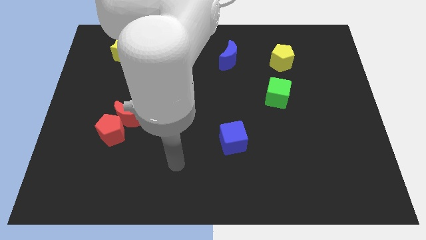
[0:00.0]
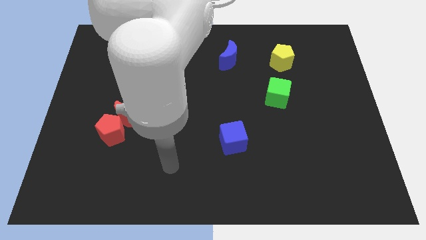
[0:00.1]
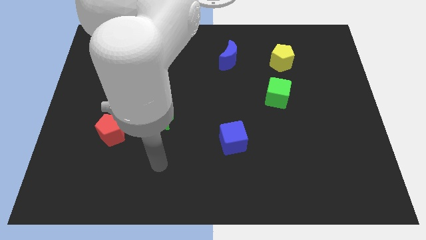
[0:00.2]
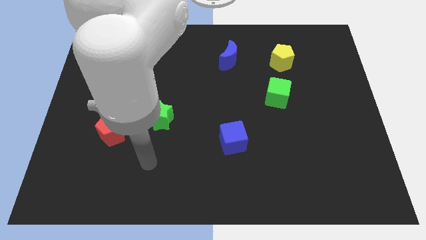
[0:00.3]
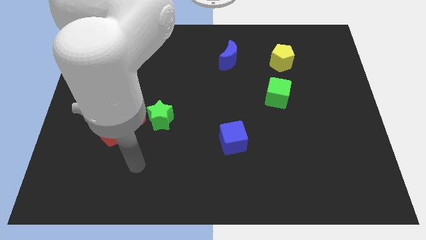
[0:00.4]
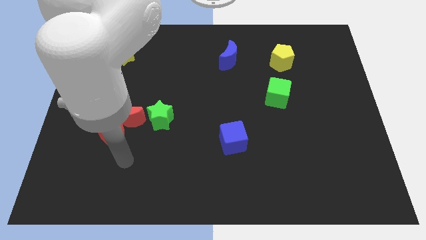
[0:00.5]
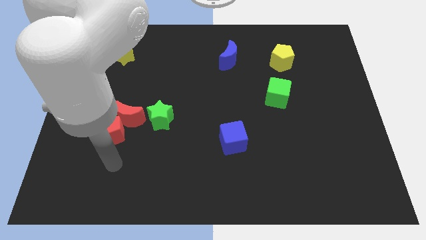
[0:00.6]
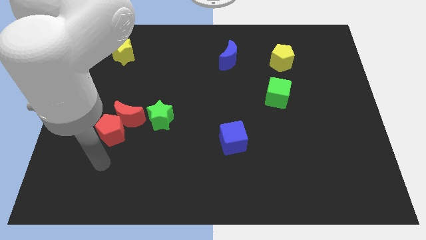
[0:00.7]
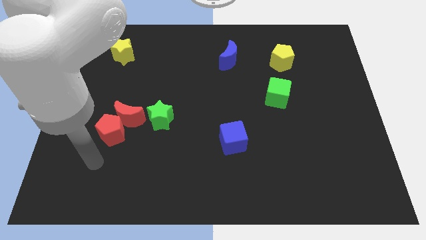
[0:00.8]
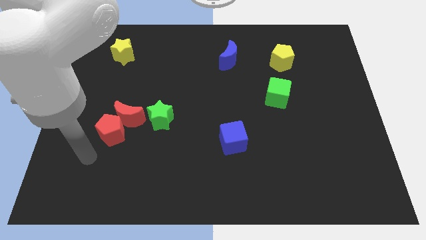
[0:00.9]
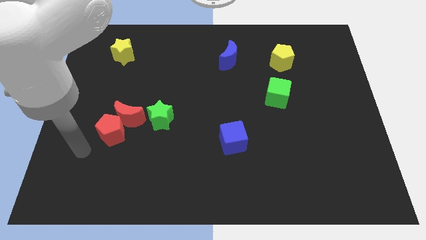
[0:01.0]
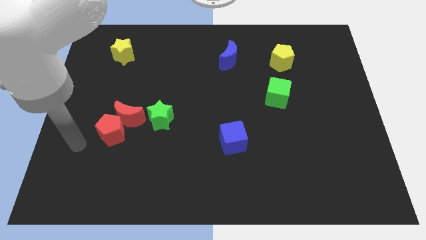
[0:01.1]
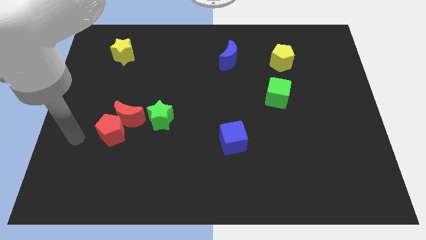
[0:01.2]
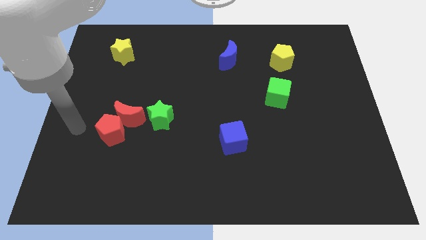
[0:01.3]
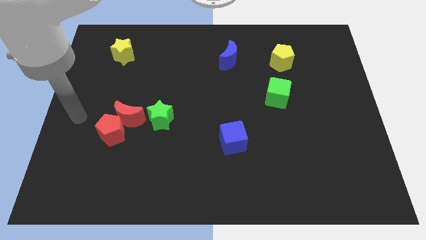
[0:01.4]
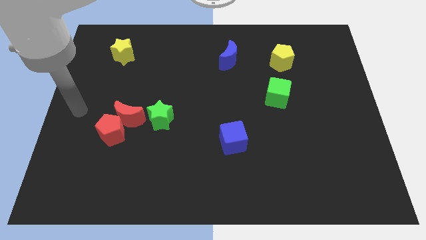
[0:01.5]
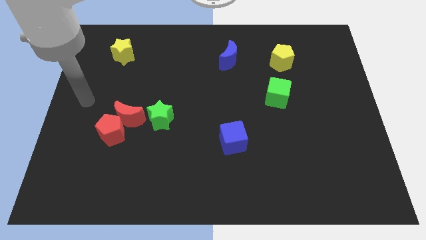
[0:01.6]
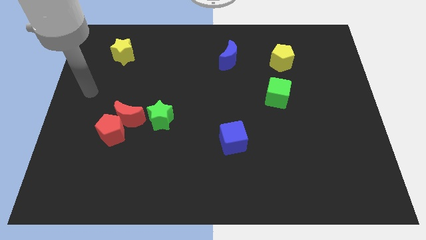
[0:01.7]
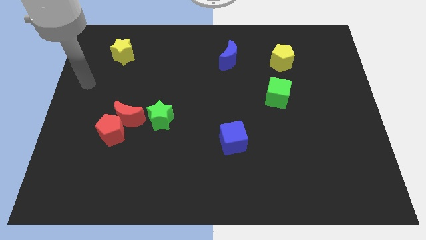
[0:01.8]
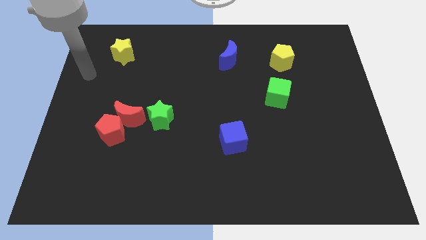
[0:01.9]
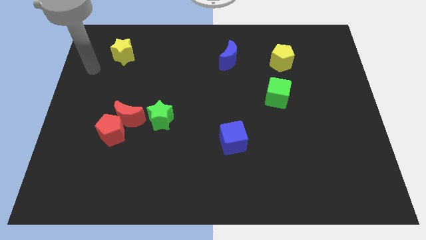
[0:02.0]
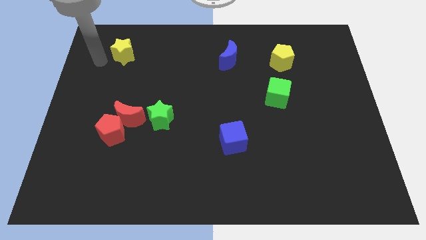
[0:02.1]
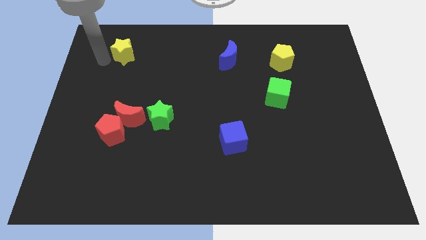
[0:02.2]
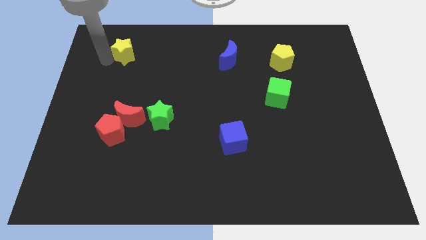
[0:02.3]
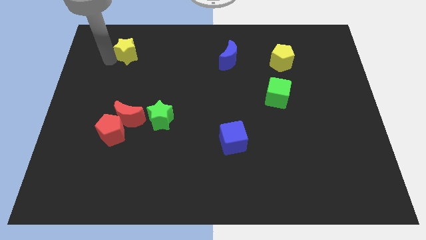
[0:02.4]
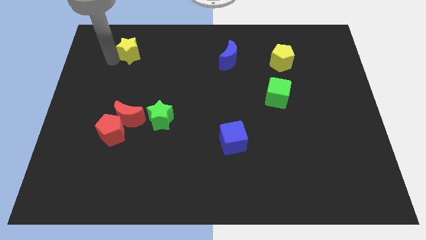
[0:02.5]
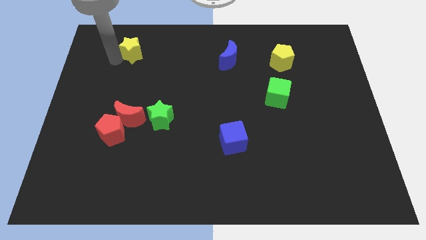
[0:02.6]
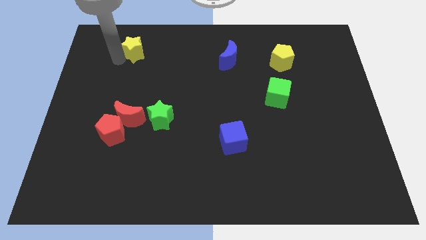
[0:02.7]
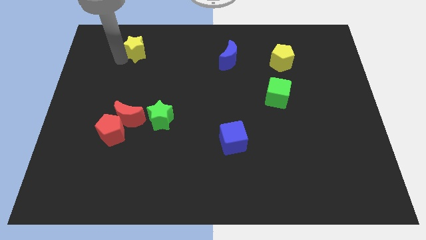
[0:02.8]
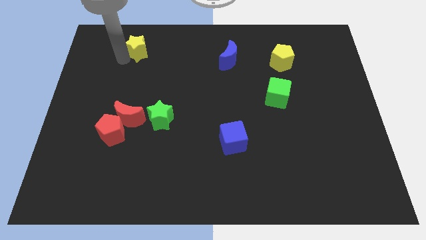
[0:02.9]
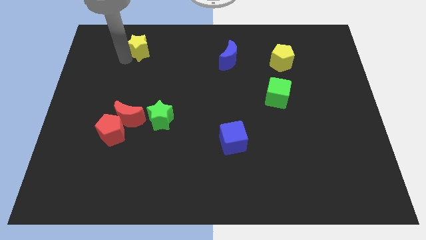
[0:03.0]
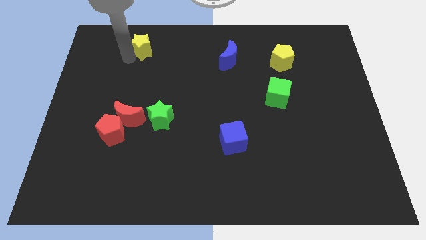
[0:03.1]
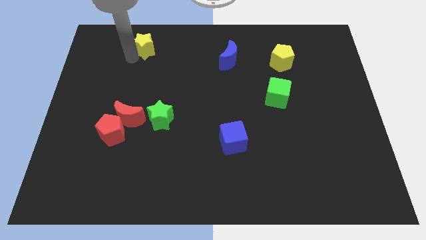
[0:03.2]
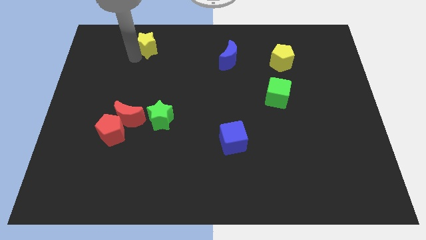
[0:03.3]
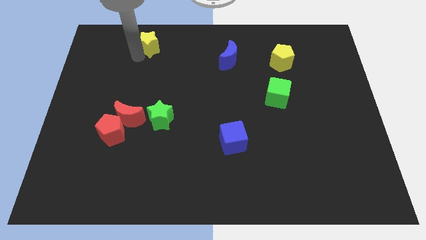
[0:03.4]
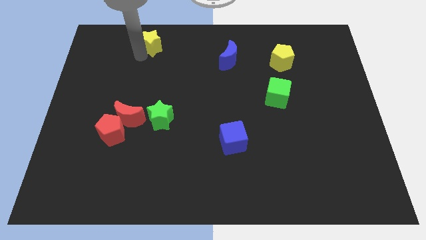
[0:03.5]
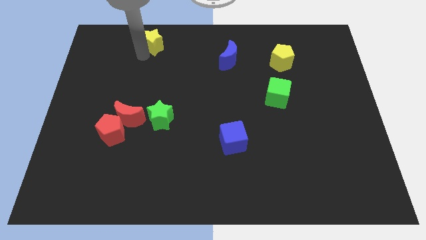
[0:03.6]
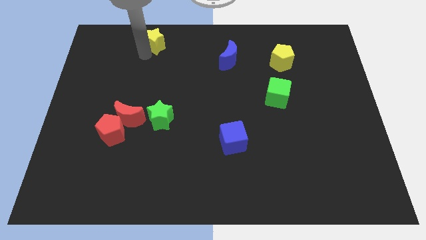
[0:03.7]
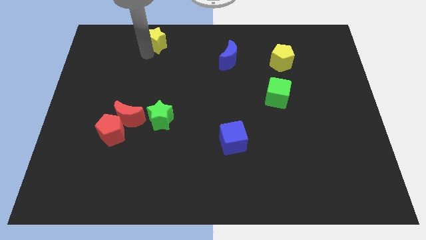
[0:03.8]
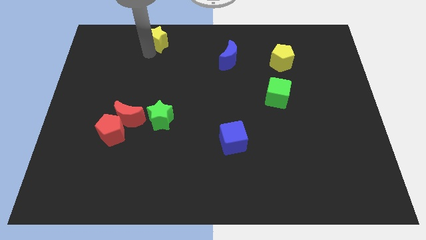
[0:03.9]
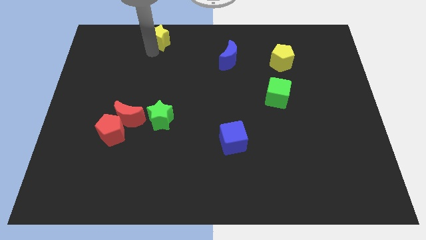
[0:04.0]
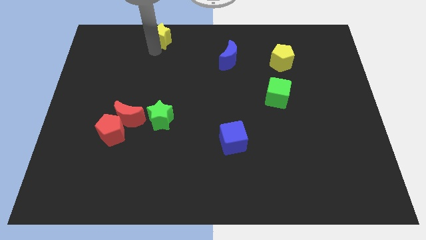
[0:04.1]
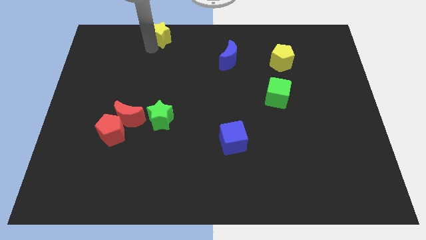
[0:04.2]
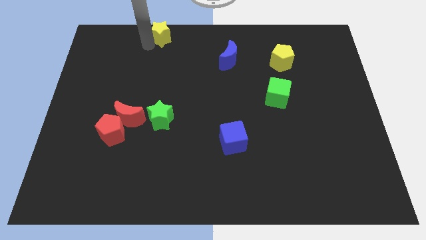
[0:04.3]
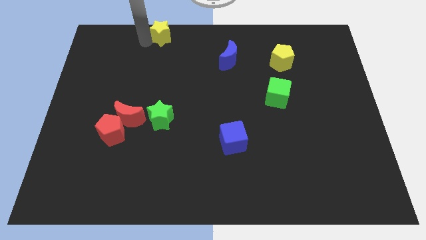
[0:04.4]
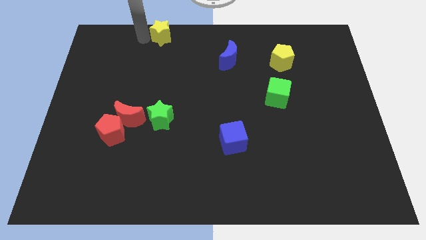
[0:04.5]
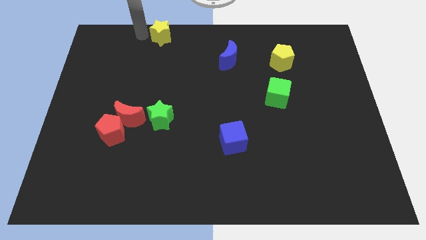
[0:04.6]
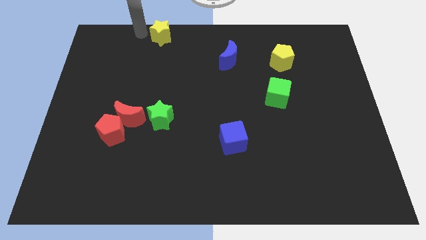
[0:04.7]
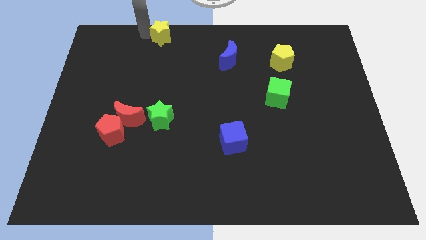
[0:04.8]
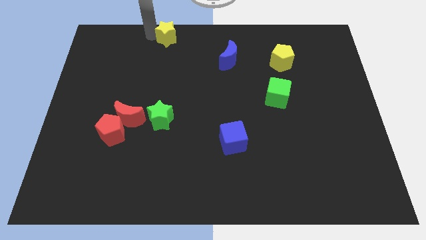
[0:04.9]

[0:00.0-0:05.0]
push the yellow star to the top side

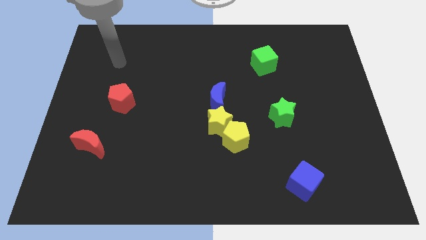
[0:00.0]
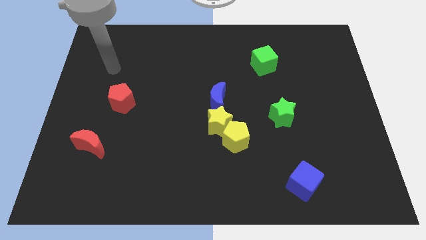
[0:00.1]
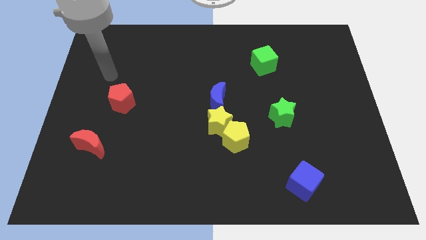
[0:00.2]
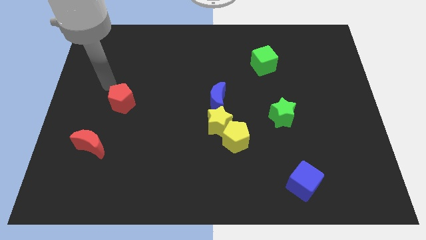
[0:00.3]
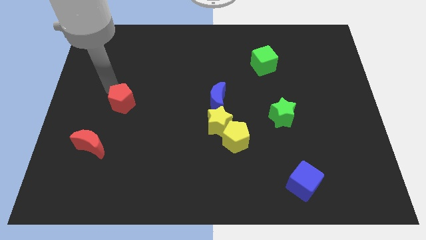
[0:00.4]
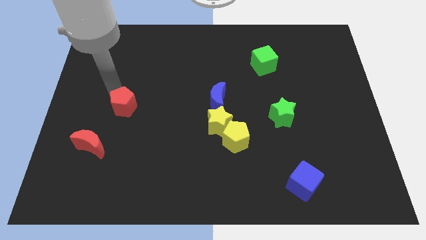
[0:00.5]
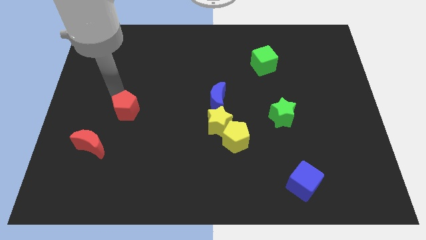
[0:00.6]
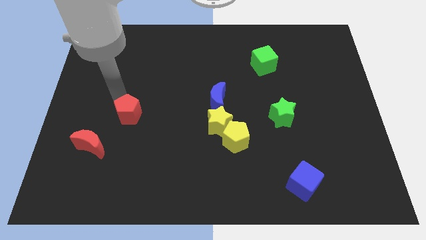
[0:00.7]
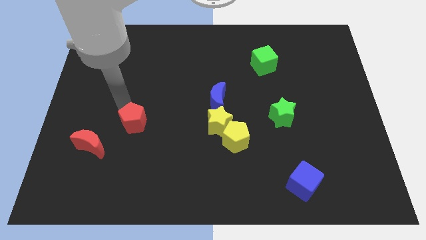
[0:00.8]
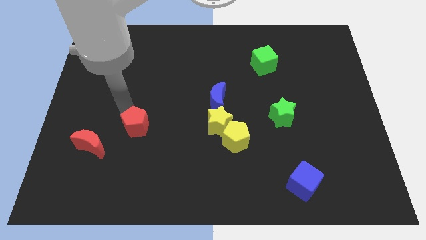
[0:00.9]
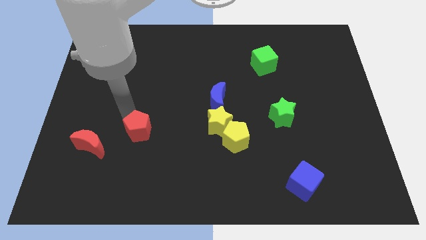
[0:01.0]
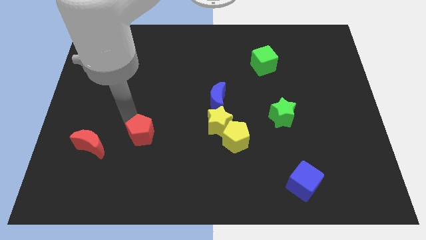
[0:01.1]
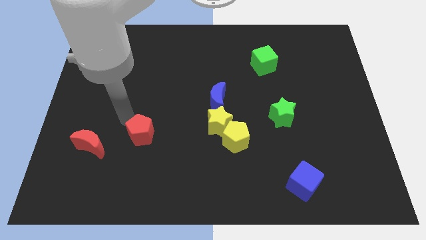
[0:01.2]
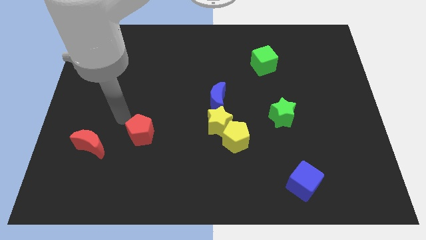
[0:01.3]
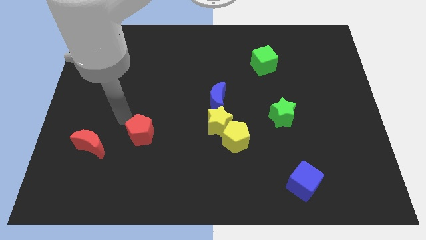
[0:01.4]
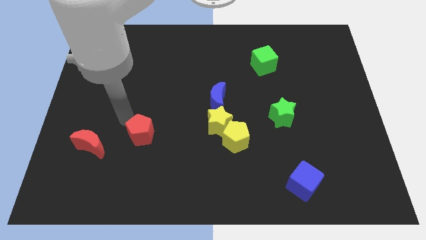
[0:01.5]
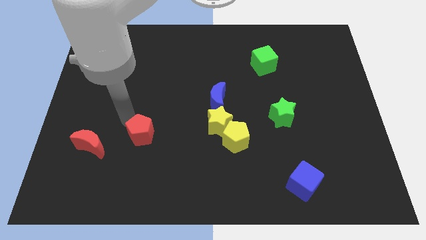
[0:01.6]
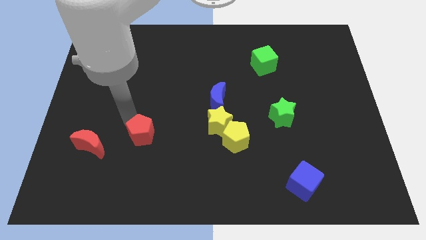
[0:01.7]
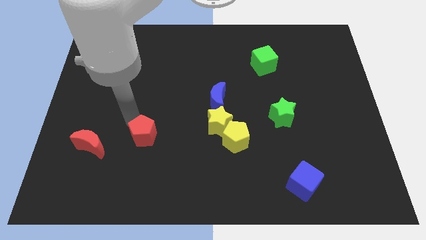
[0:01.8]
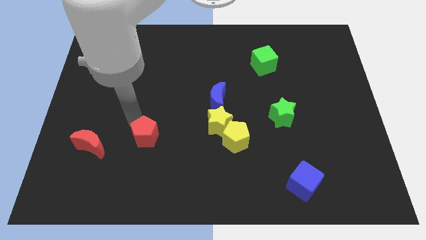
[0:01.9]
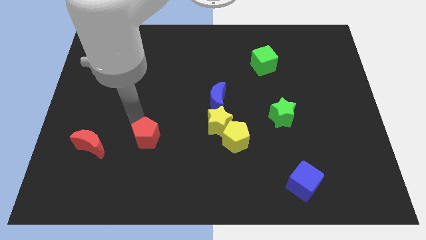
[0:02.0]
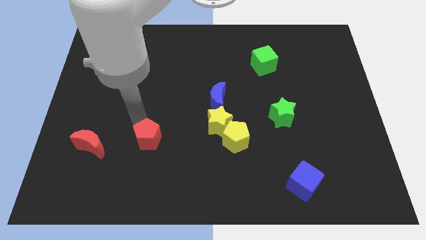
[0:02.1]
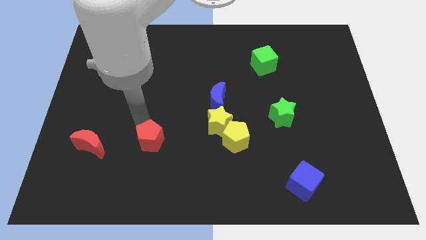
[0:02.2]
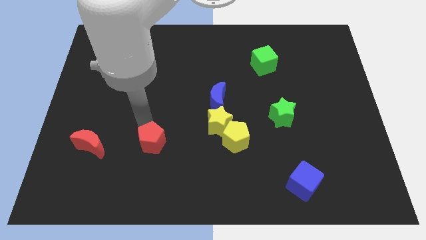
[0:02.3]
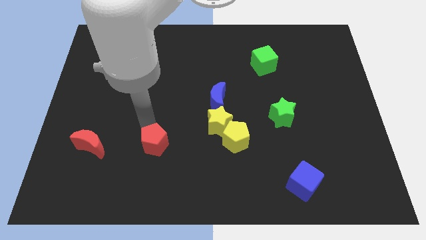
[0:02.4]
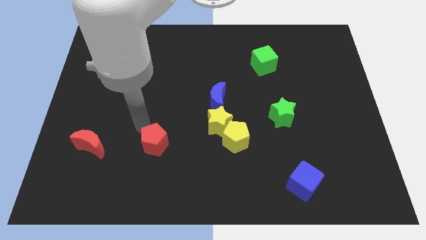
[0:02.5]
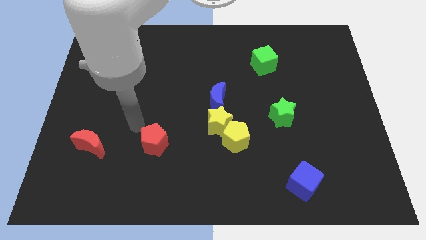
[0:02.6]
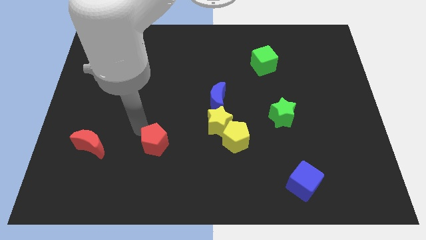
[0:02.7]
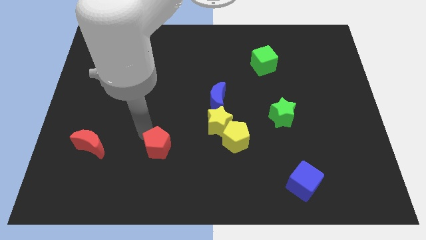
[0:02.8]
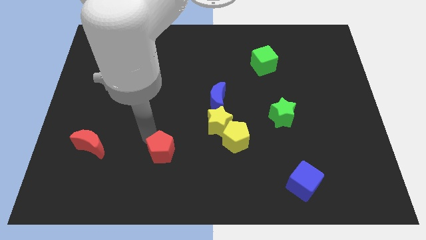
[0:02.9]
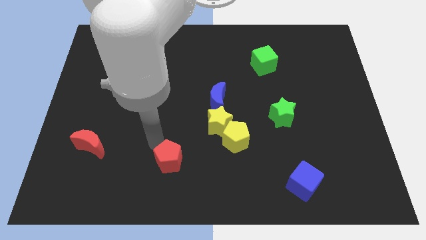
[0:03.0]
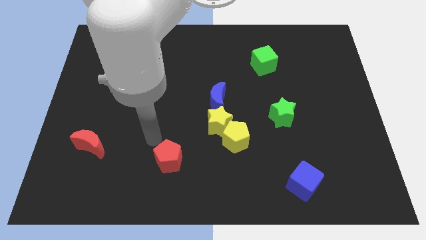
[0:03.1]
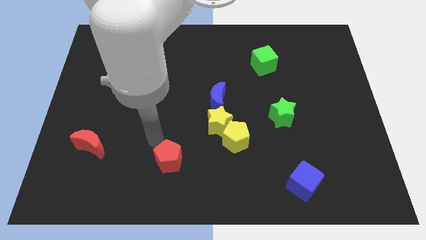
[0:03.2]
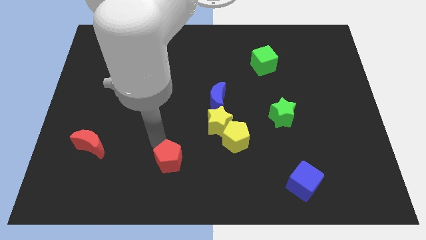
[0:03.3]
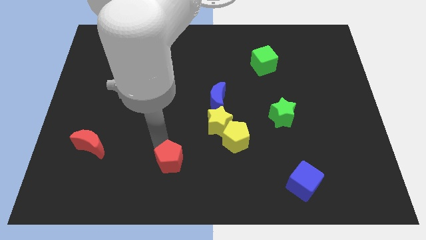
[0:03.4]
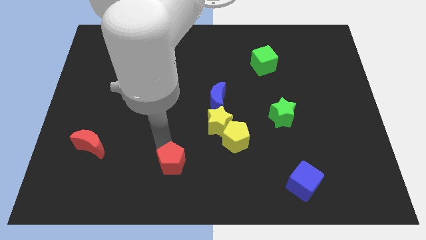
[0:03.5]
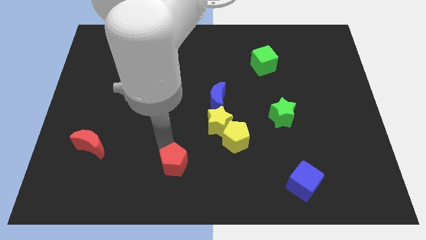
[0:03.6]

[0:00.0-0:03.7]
put the red pentagon to the bottom side
